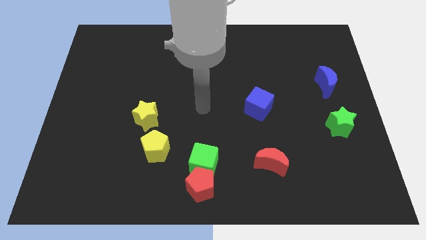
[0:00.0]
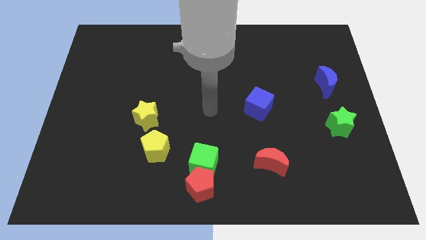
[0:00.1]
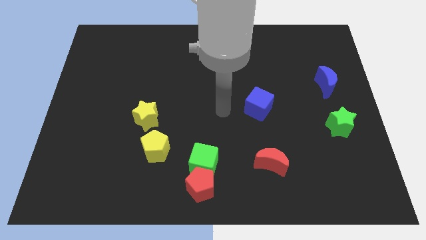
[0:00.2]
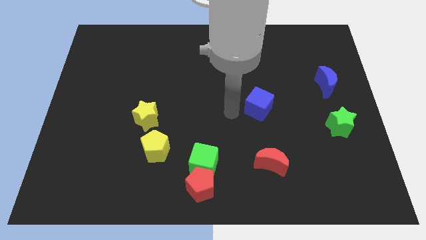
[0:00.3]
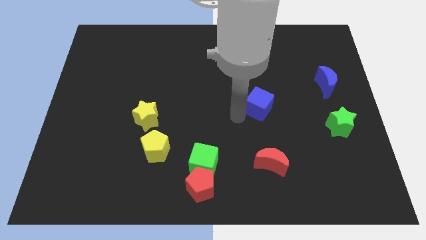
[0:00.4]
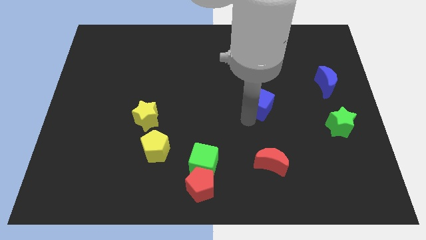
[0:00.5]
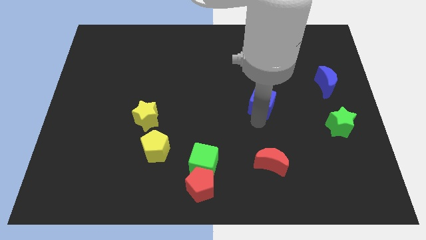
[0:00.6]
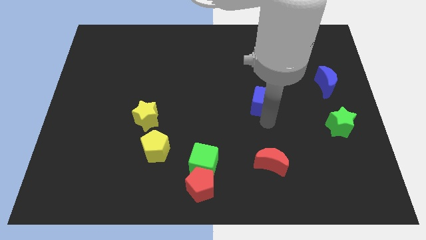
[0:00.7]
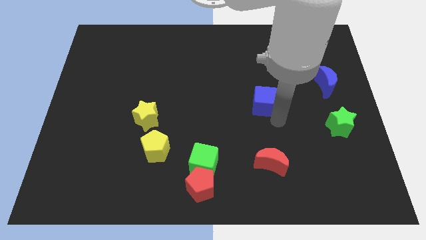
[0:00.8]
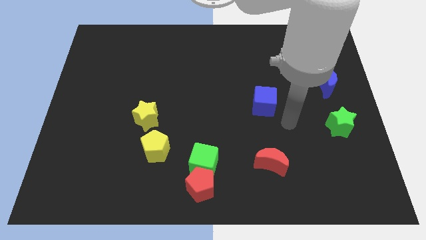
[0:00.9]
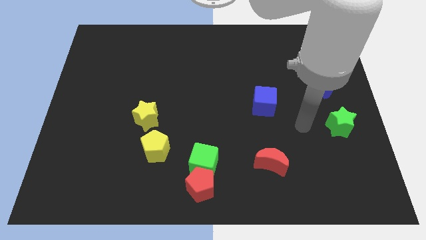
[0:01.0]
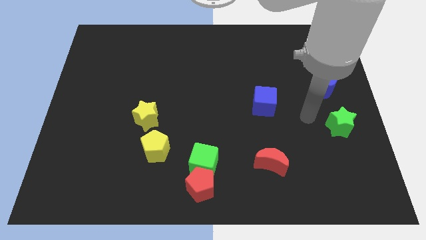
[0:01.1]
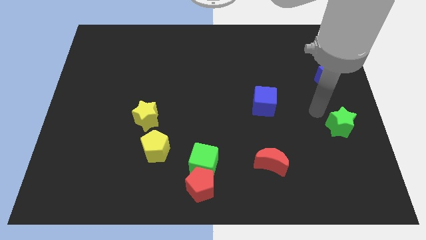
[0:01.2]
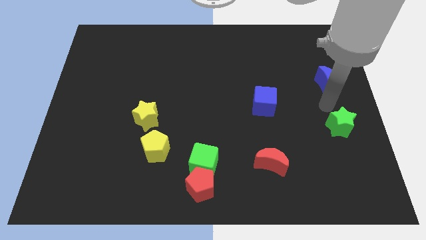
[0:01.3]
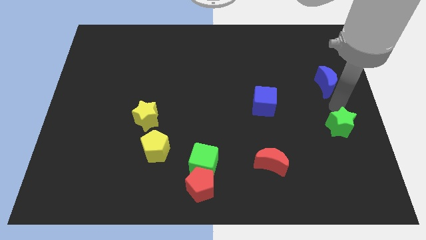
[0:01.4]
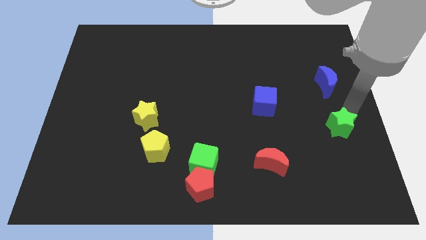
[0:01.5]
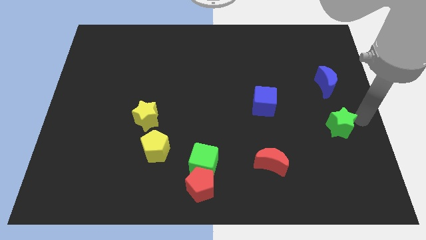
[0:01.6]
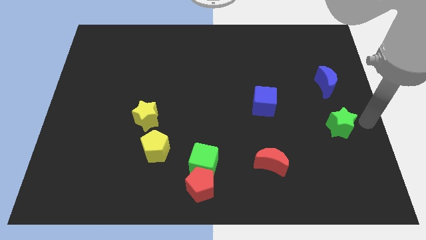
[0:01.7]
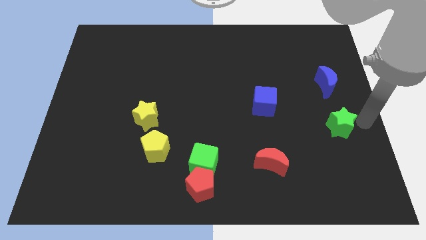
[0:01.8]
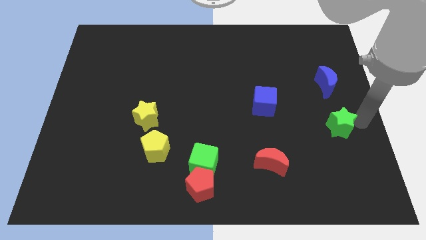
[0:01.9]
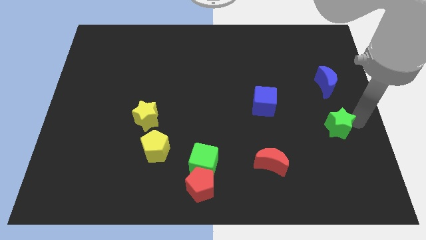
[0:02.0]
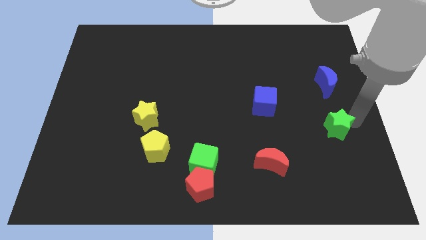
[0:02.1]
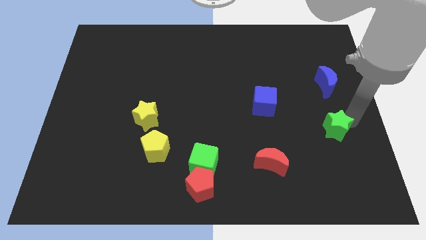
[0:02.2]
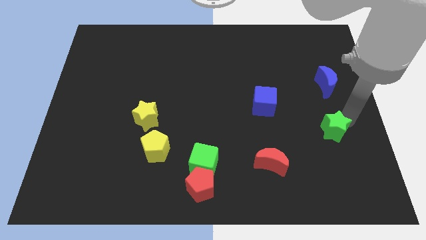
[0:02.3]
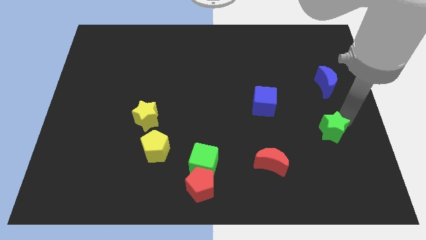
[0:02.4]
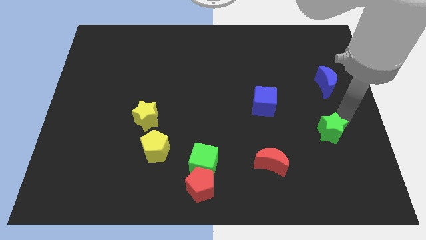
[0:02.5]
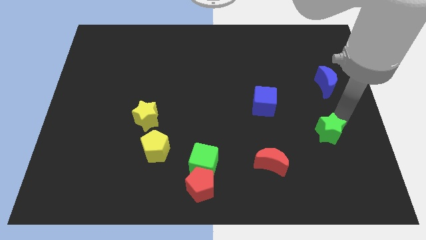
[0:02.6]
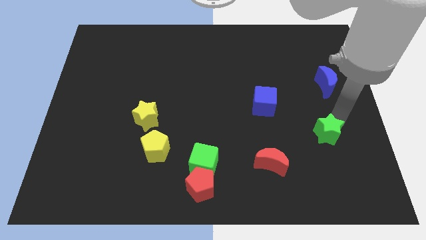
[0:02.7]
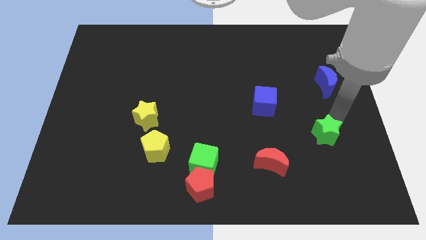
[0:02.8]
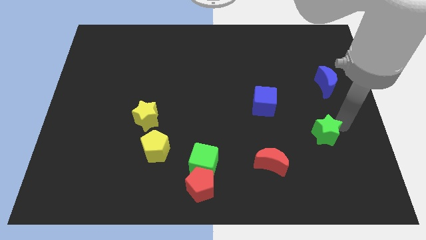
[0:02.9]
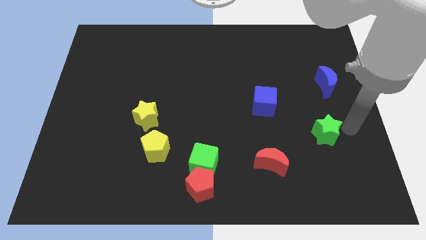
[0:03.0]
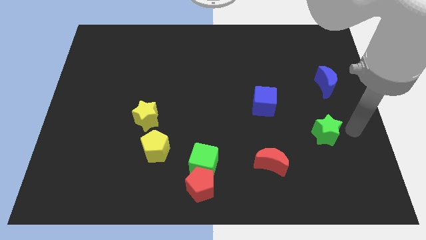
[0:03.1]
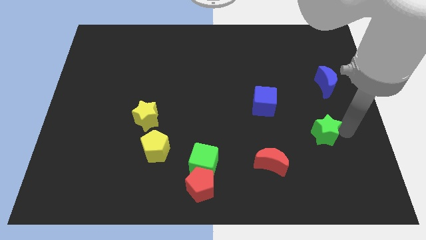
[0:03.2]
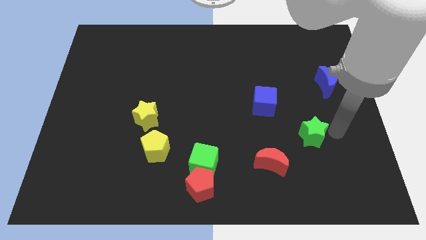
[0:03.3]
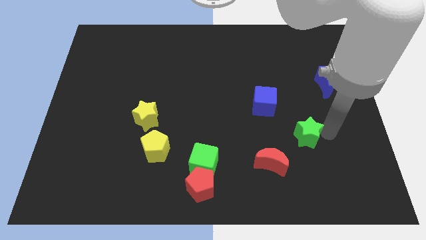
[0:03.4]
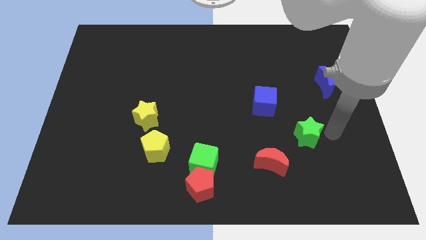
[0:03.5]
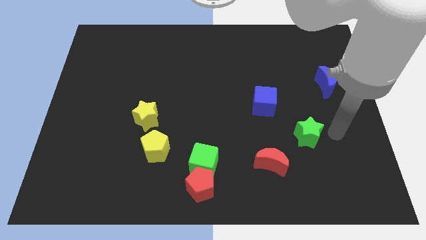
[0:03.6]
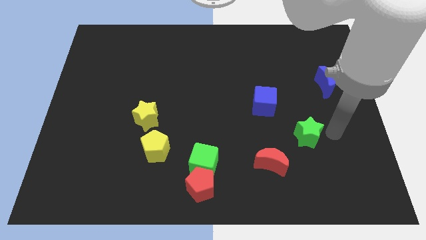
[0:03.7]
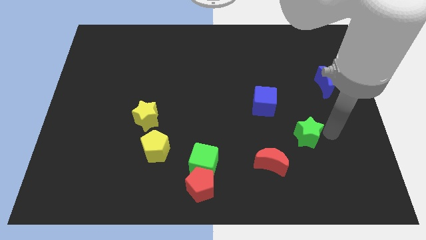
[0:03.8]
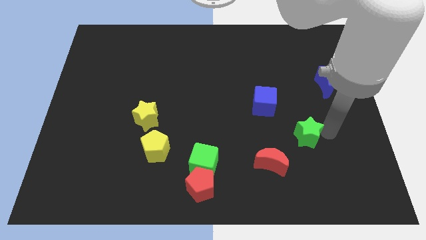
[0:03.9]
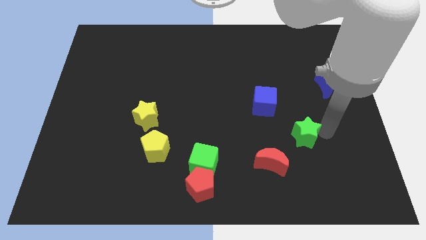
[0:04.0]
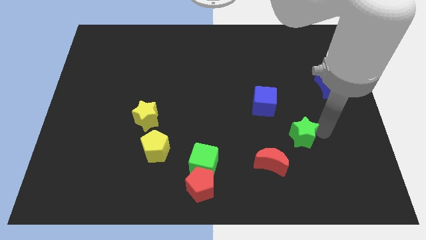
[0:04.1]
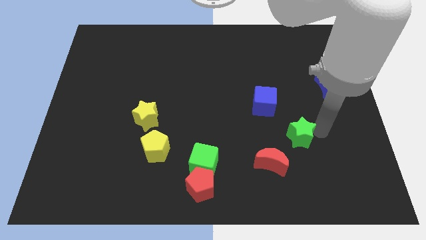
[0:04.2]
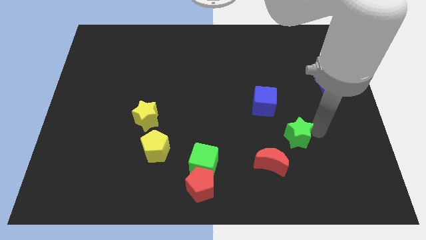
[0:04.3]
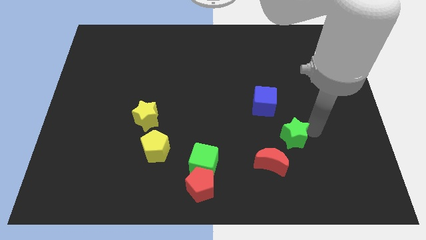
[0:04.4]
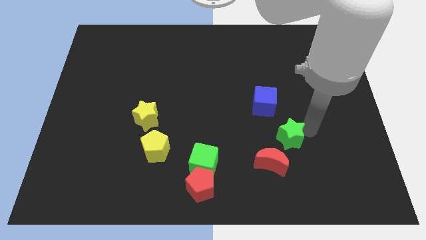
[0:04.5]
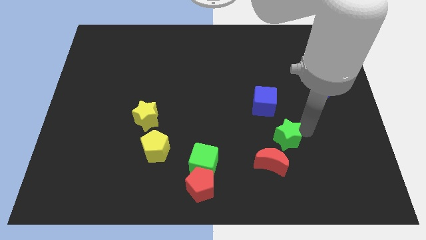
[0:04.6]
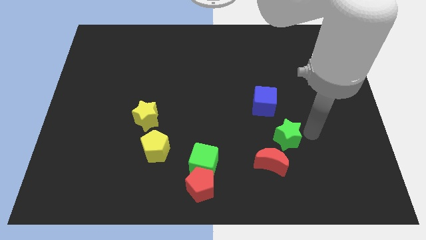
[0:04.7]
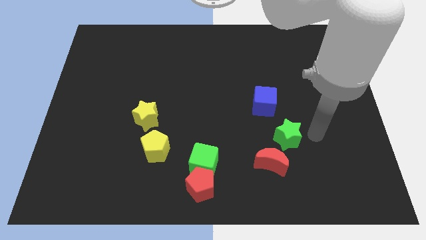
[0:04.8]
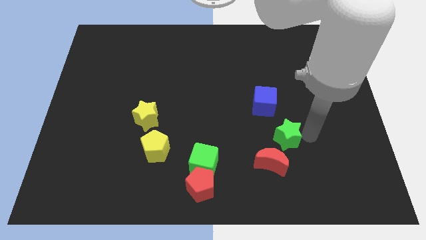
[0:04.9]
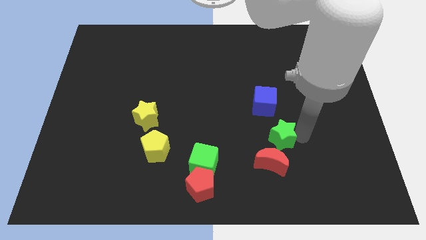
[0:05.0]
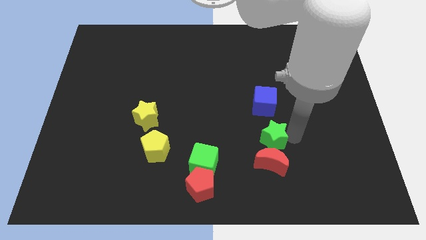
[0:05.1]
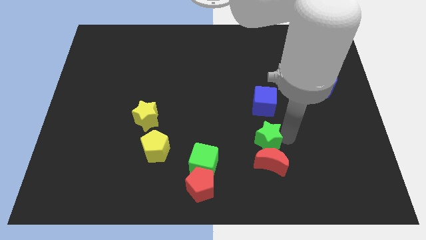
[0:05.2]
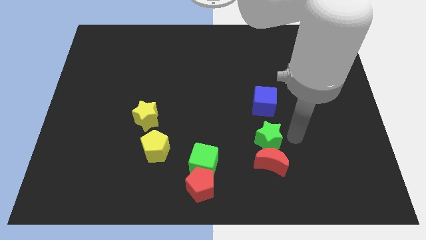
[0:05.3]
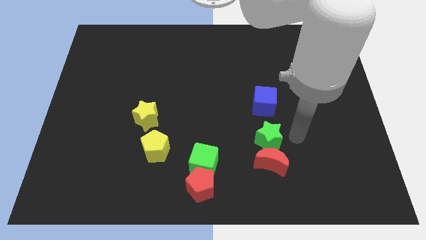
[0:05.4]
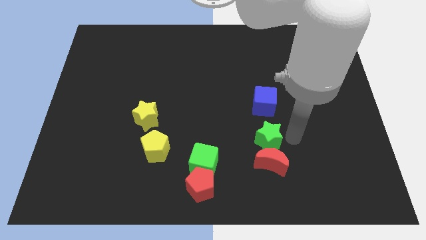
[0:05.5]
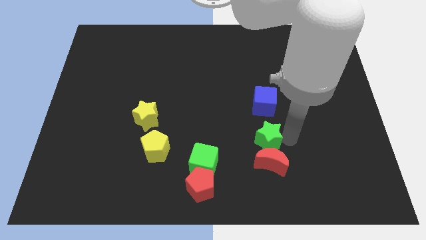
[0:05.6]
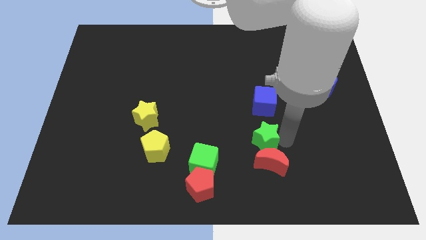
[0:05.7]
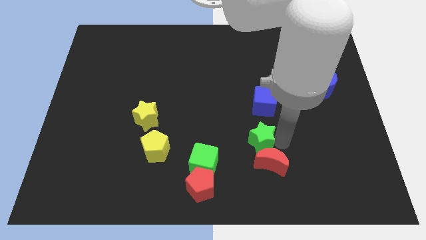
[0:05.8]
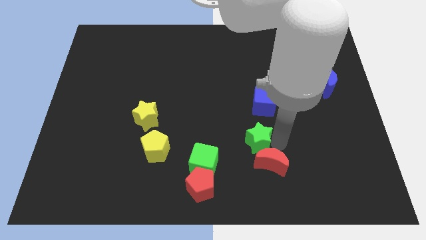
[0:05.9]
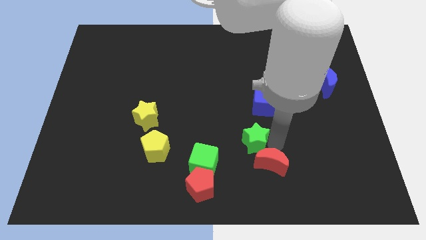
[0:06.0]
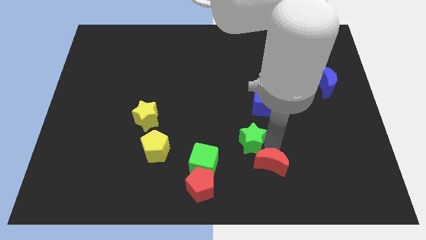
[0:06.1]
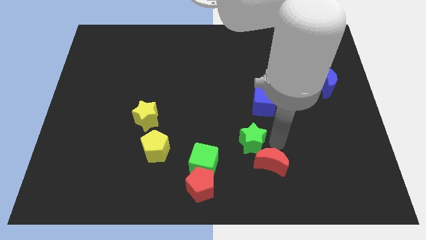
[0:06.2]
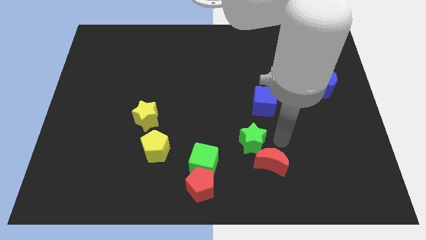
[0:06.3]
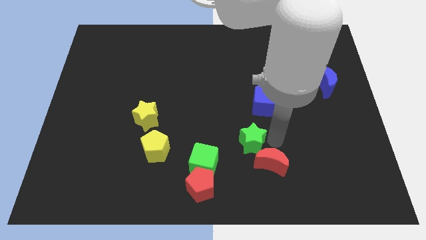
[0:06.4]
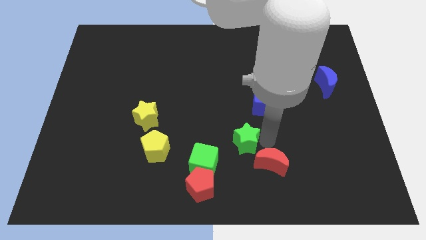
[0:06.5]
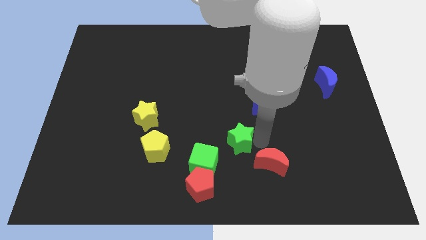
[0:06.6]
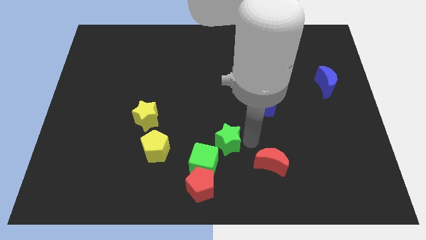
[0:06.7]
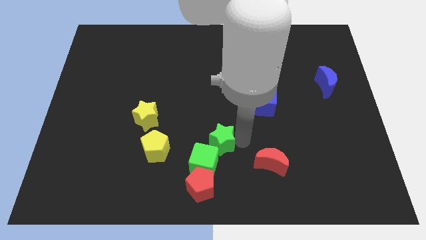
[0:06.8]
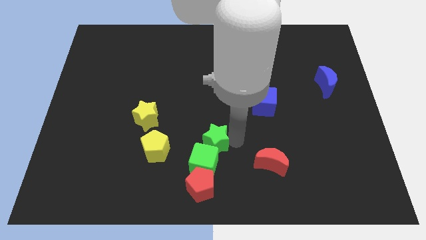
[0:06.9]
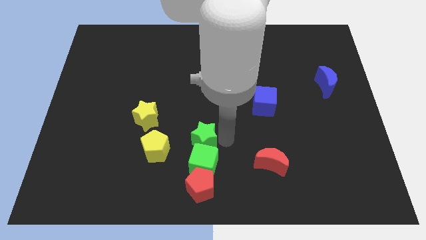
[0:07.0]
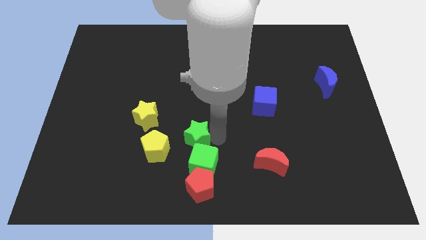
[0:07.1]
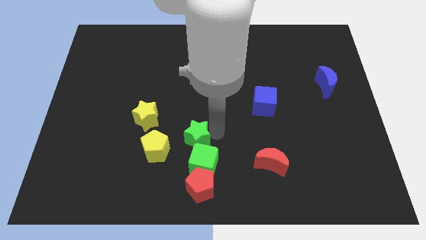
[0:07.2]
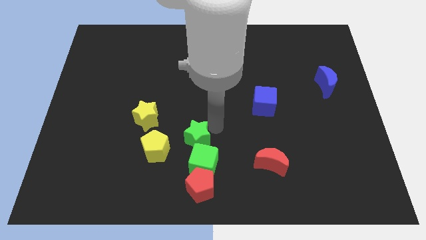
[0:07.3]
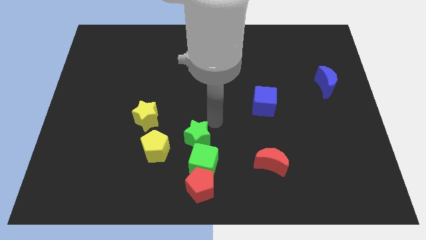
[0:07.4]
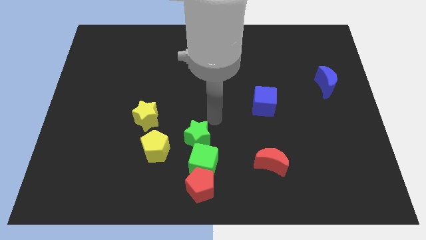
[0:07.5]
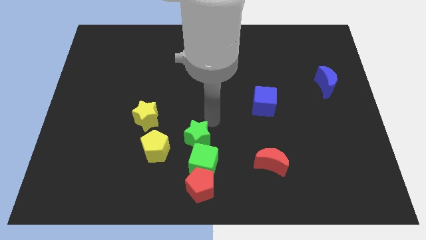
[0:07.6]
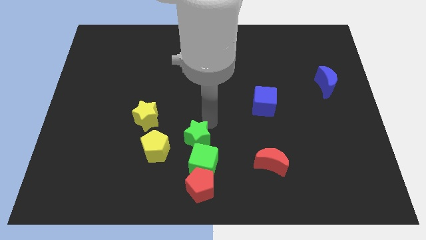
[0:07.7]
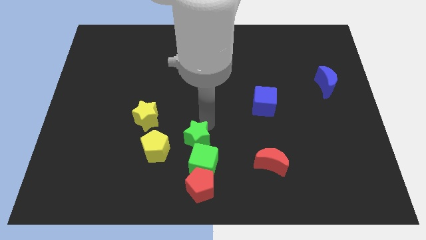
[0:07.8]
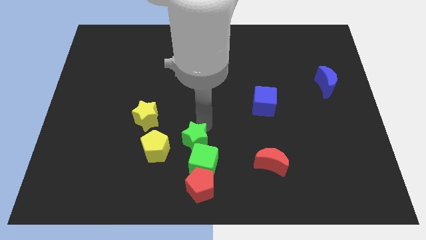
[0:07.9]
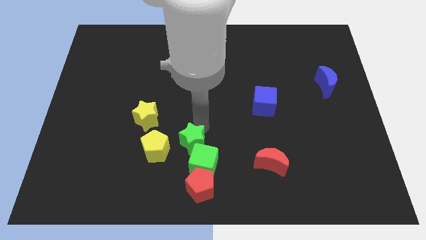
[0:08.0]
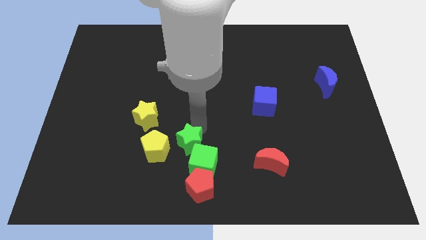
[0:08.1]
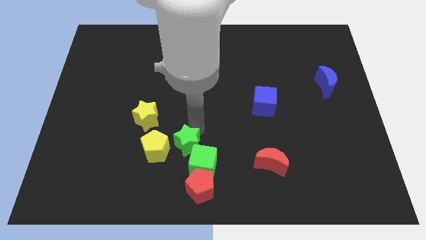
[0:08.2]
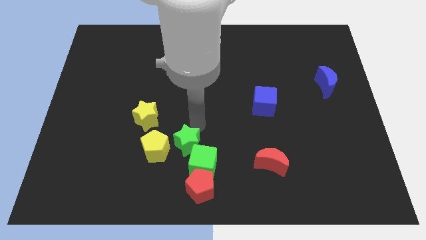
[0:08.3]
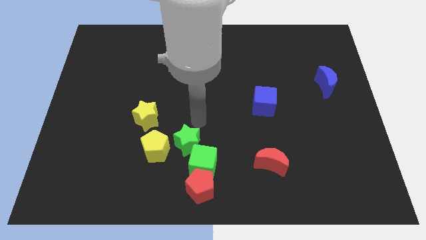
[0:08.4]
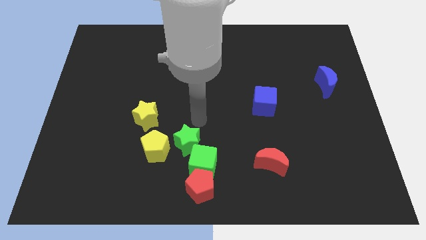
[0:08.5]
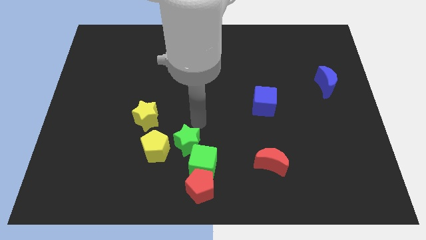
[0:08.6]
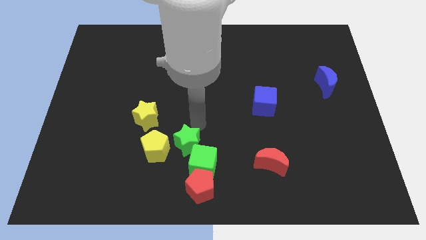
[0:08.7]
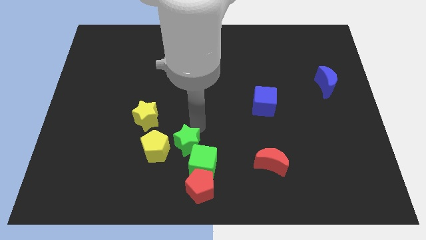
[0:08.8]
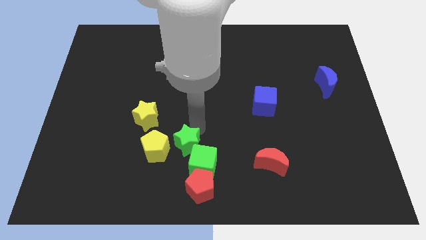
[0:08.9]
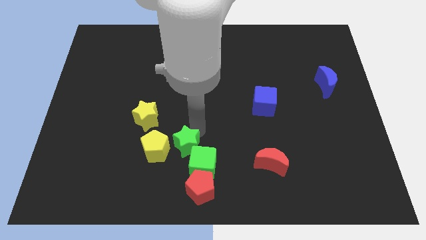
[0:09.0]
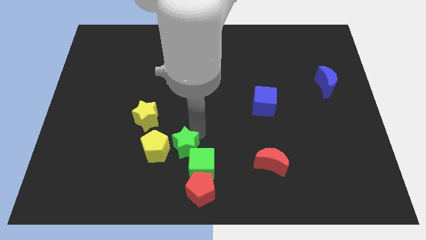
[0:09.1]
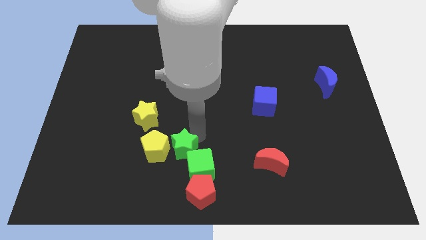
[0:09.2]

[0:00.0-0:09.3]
push the green star next to the yellow pentagon
